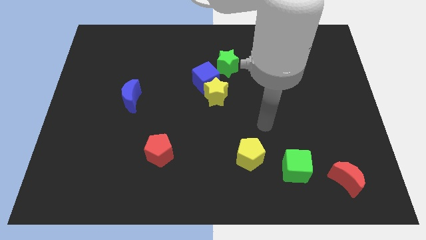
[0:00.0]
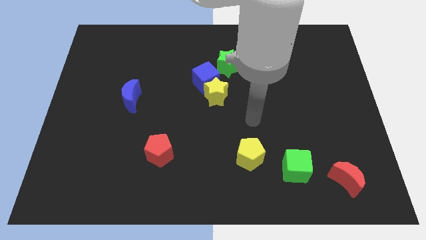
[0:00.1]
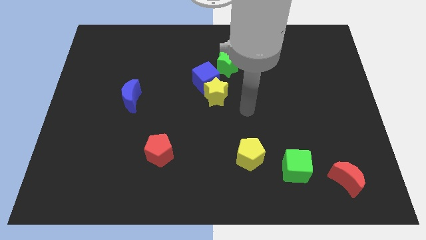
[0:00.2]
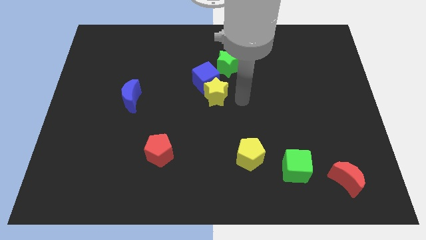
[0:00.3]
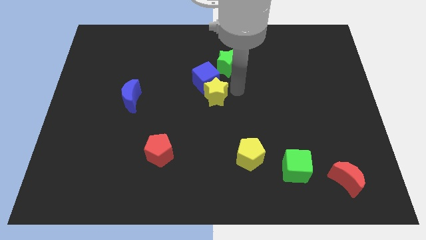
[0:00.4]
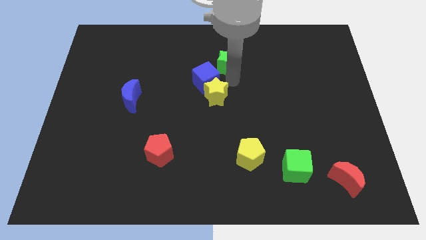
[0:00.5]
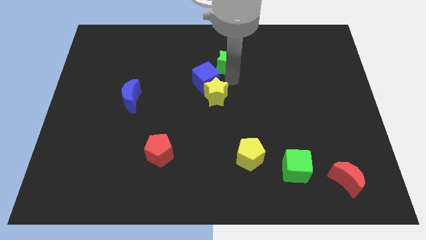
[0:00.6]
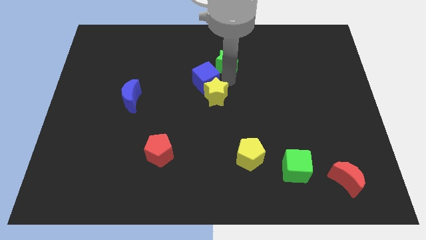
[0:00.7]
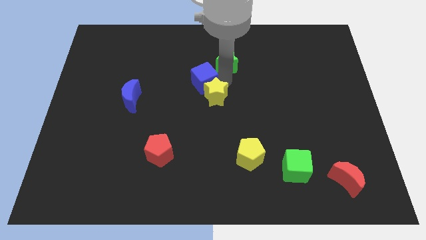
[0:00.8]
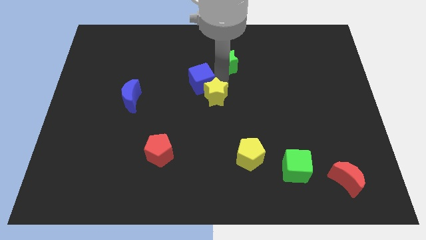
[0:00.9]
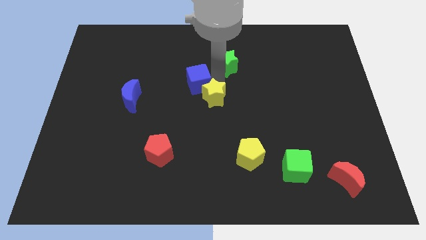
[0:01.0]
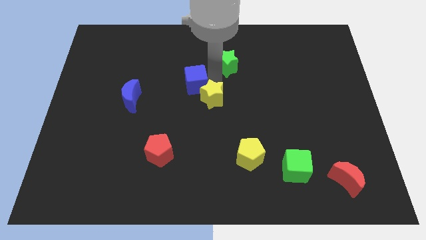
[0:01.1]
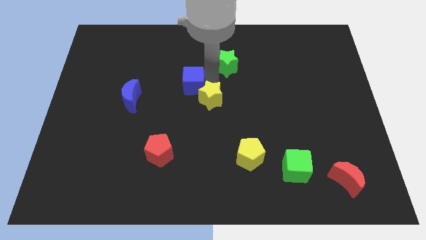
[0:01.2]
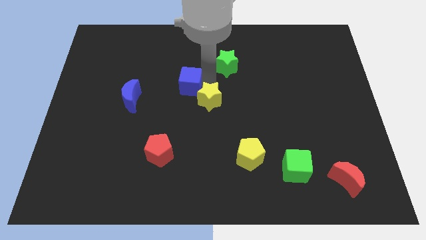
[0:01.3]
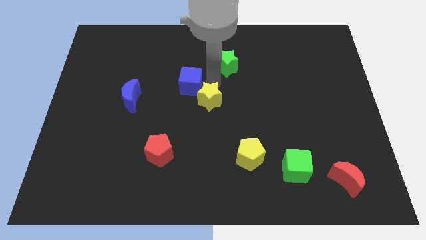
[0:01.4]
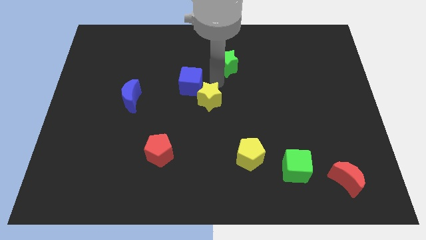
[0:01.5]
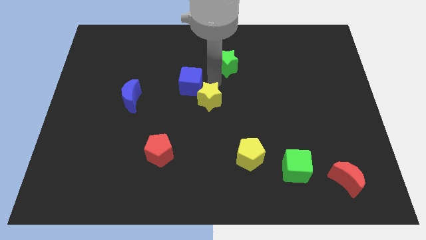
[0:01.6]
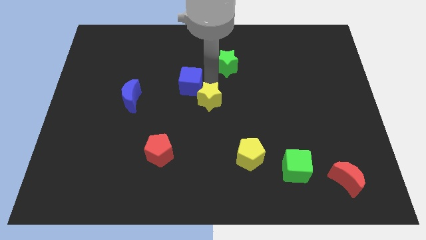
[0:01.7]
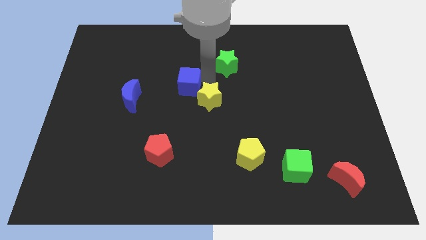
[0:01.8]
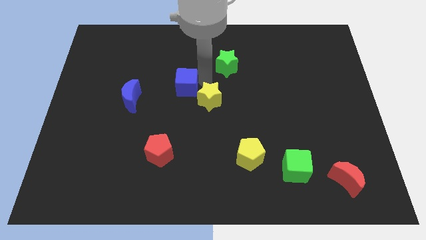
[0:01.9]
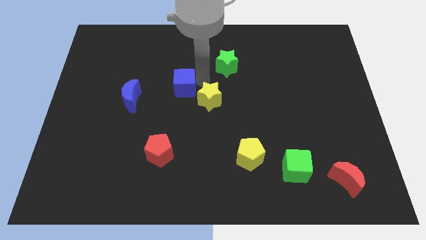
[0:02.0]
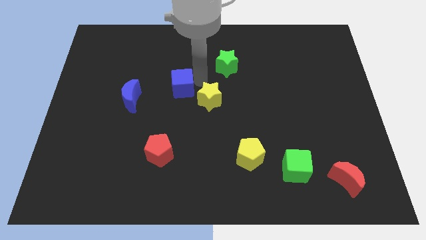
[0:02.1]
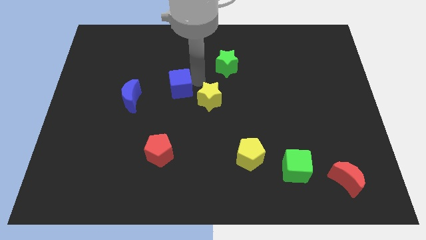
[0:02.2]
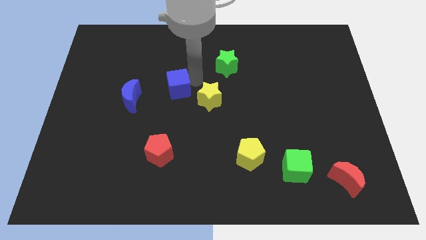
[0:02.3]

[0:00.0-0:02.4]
pull the blue cube apart from the yellow star and green star

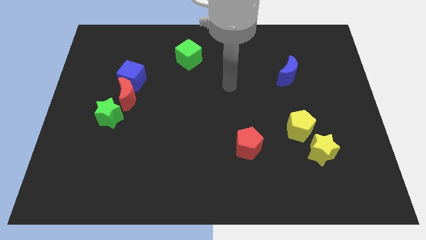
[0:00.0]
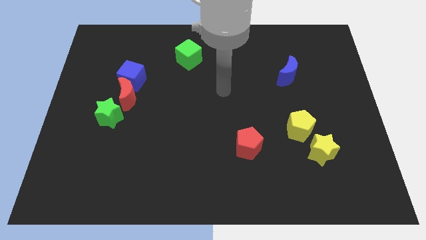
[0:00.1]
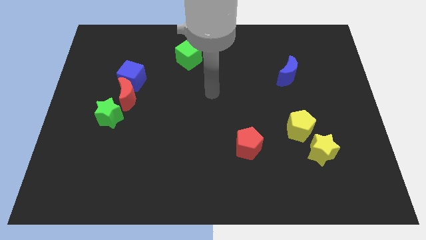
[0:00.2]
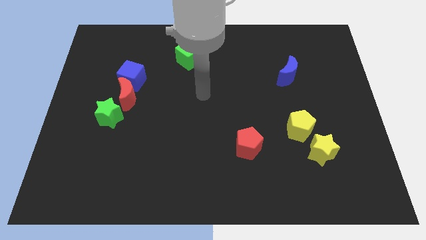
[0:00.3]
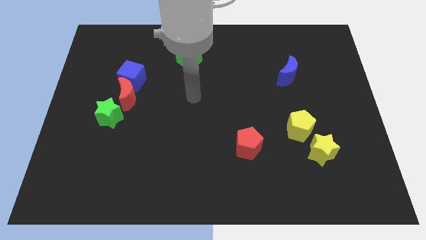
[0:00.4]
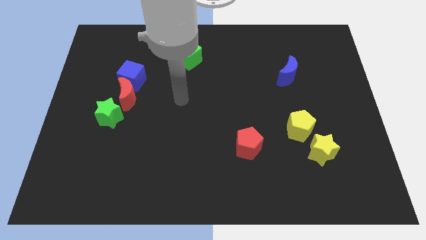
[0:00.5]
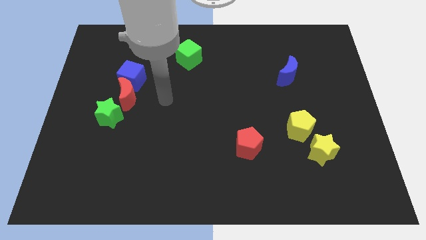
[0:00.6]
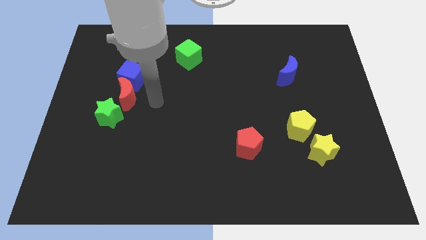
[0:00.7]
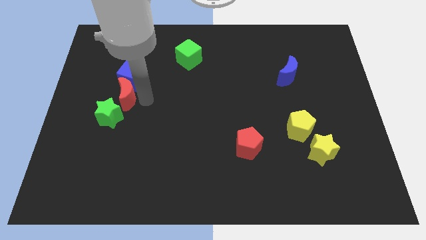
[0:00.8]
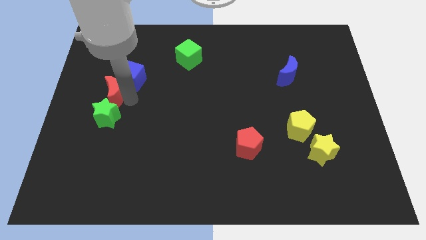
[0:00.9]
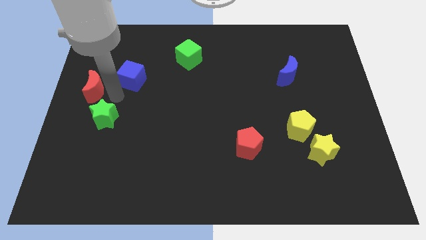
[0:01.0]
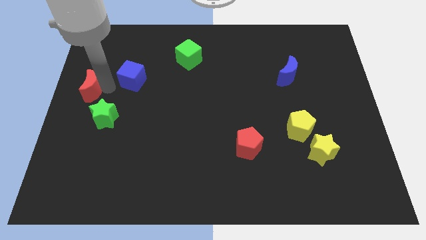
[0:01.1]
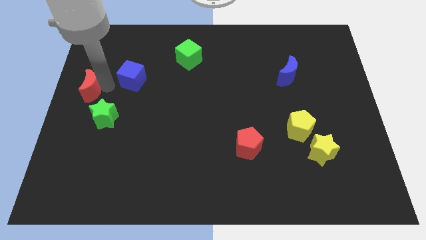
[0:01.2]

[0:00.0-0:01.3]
separate the blue cube from the red moon

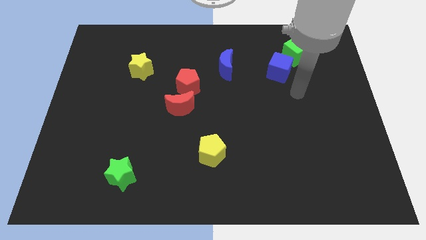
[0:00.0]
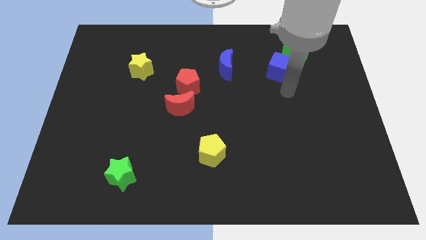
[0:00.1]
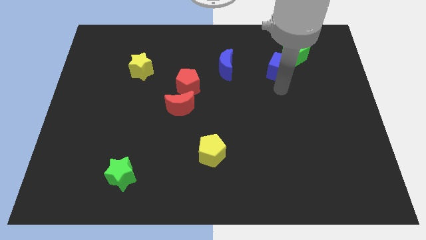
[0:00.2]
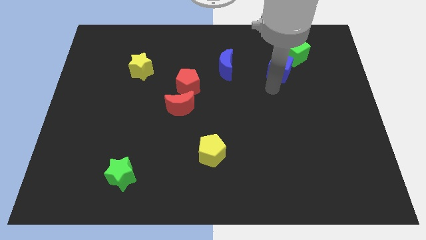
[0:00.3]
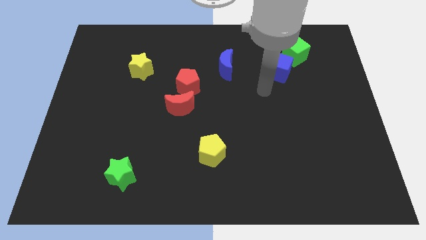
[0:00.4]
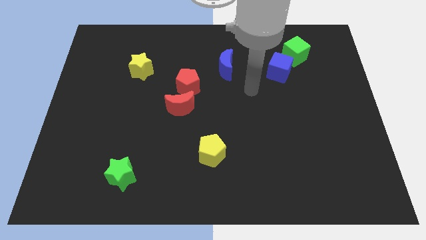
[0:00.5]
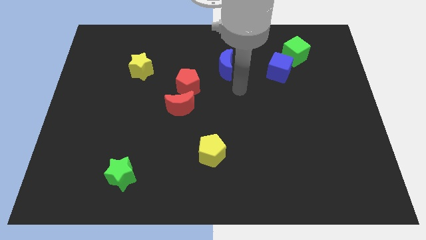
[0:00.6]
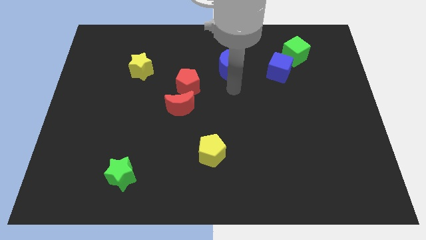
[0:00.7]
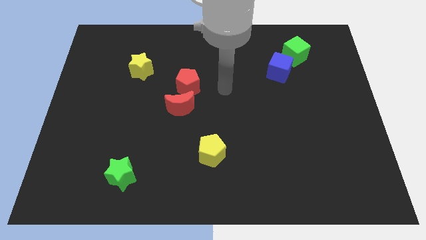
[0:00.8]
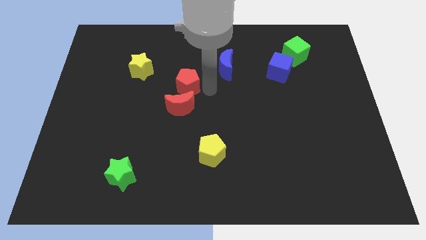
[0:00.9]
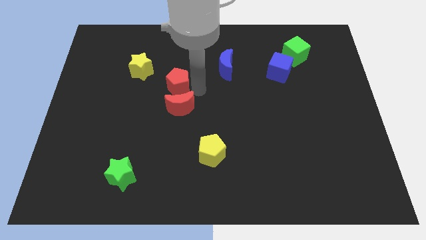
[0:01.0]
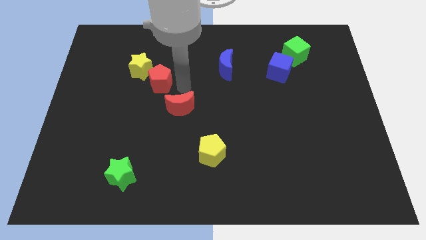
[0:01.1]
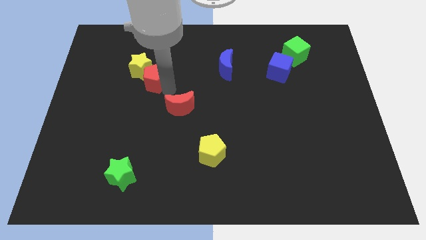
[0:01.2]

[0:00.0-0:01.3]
move the red moon away from the red pentagon

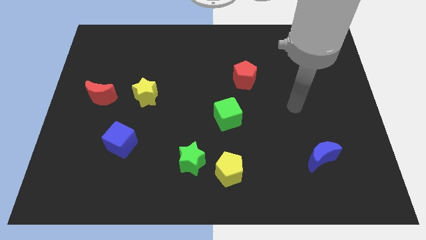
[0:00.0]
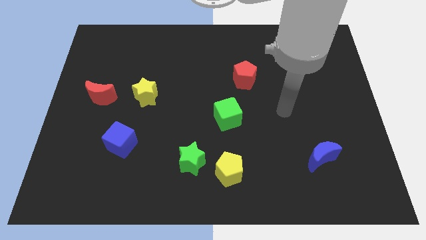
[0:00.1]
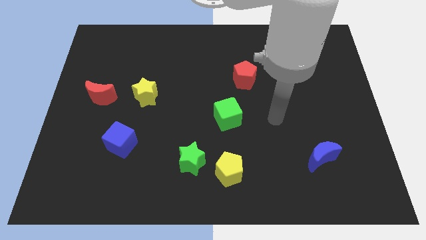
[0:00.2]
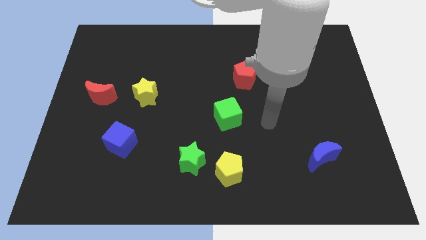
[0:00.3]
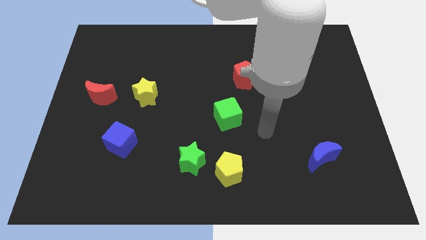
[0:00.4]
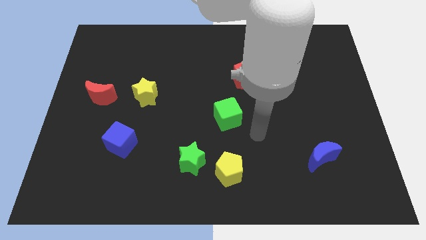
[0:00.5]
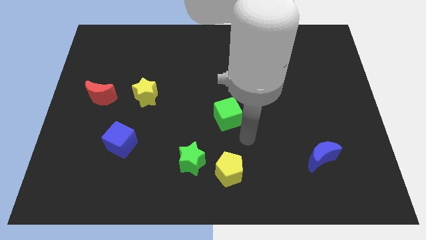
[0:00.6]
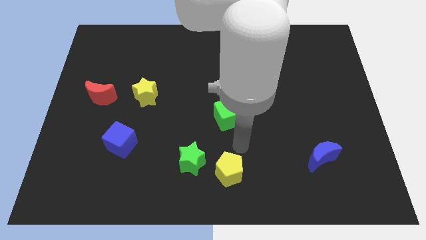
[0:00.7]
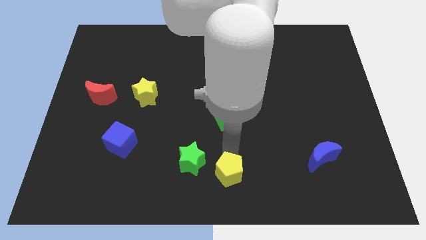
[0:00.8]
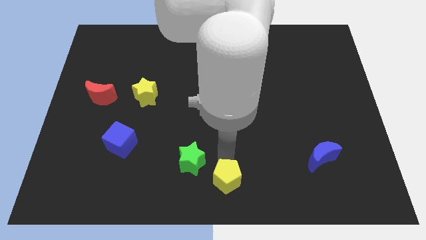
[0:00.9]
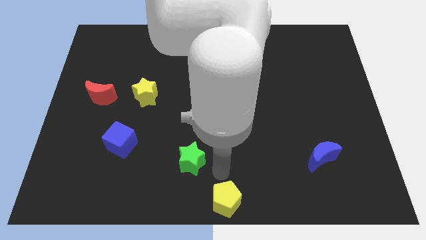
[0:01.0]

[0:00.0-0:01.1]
separate the green star from the yellow pentagon

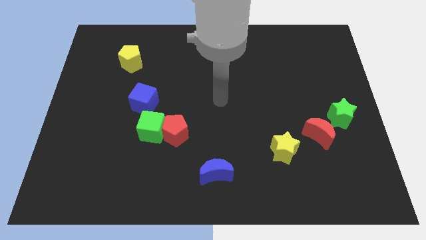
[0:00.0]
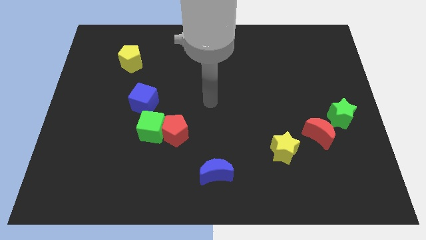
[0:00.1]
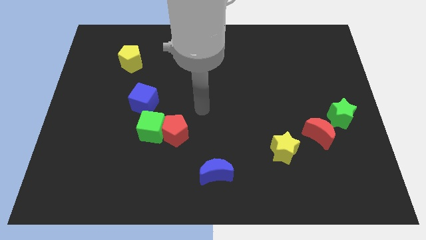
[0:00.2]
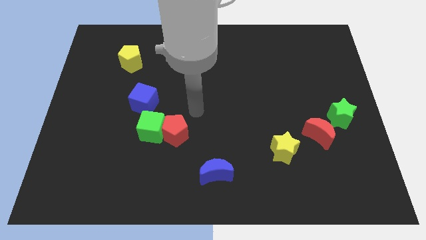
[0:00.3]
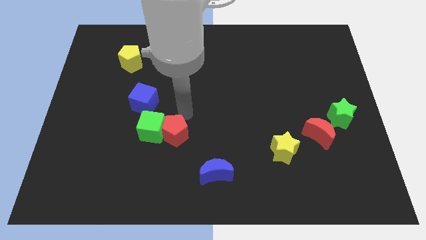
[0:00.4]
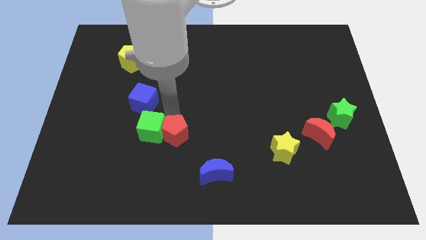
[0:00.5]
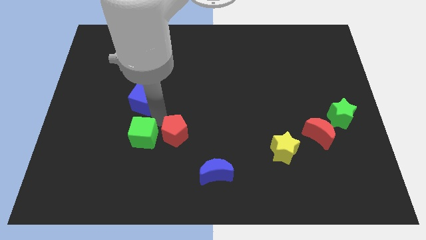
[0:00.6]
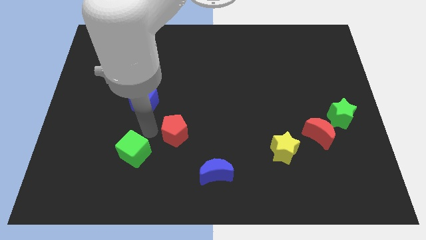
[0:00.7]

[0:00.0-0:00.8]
separate the red pentagon from the green cube

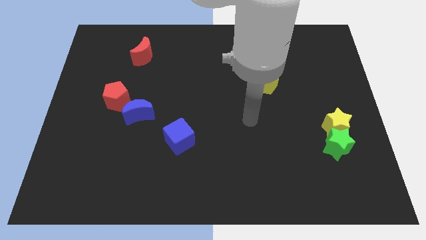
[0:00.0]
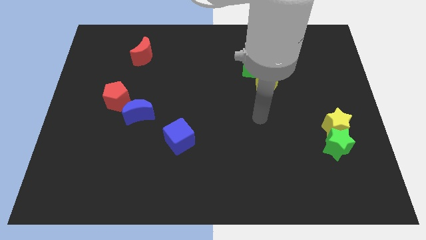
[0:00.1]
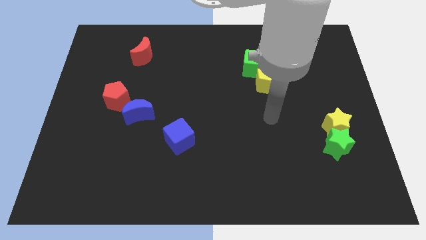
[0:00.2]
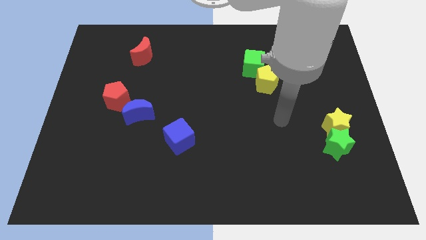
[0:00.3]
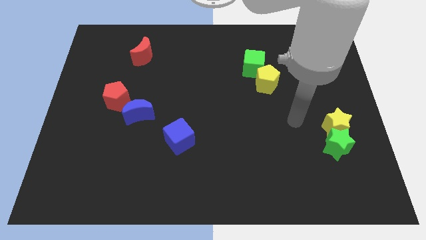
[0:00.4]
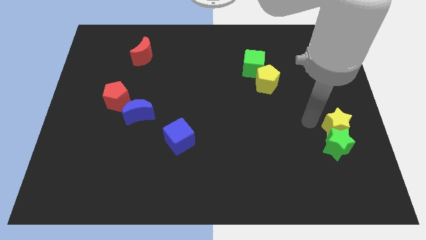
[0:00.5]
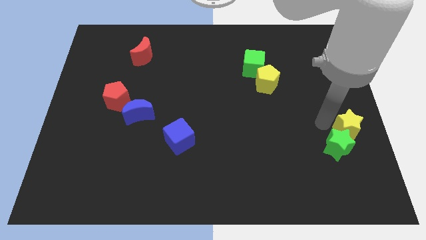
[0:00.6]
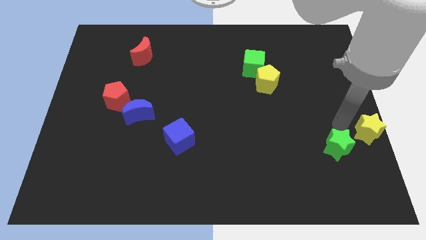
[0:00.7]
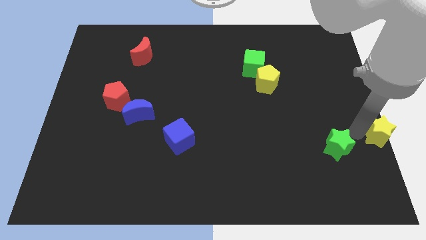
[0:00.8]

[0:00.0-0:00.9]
pull the green star apart from the yellow star

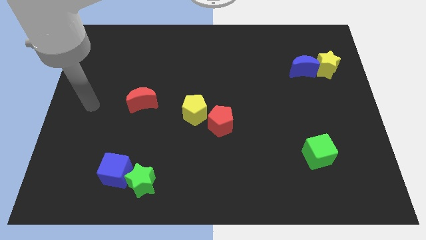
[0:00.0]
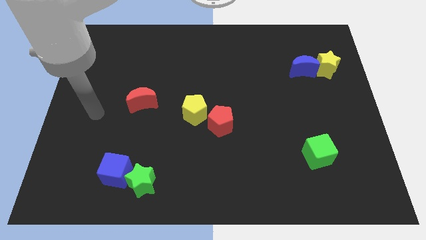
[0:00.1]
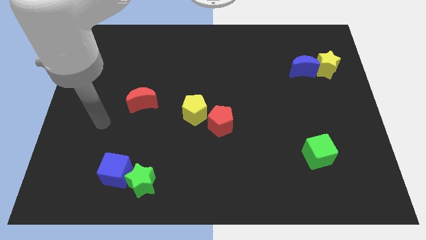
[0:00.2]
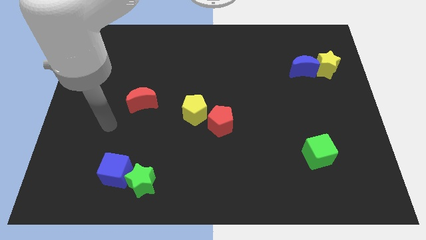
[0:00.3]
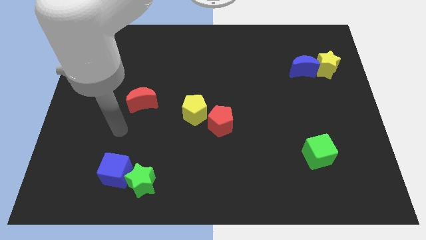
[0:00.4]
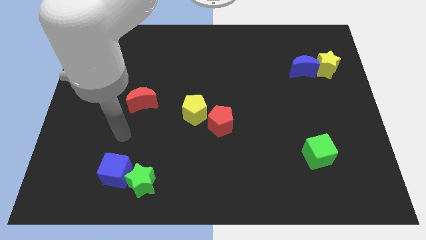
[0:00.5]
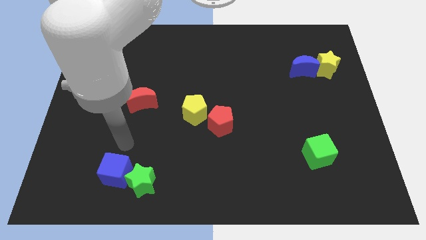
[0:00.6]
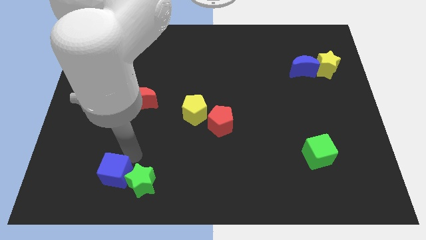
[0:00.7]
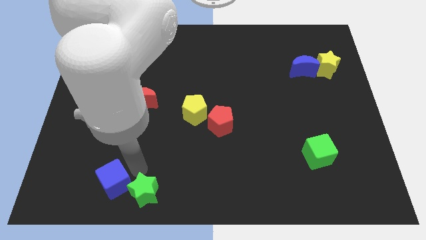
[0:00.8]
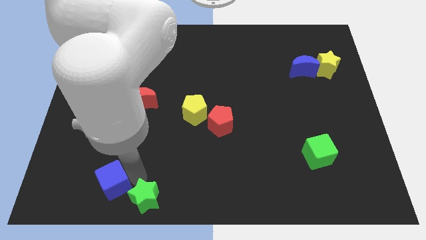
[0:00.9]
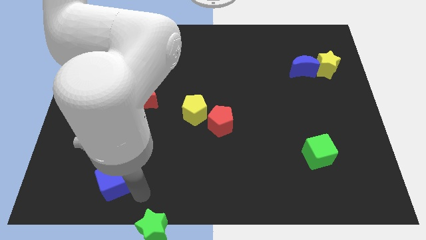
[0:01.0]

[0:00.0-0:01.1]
move the blue cube away from the green star

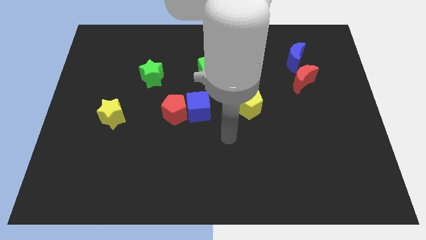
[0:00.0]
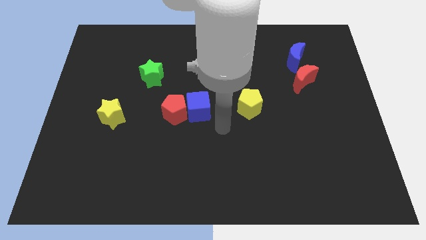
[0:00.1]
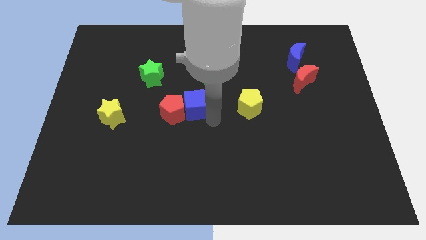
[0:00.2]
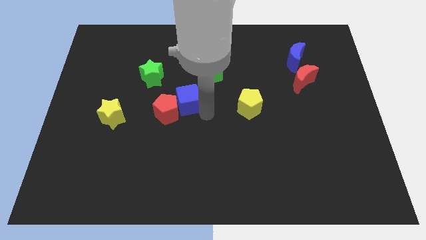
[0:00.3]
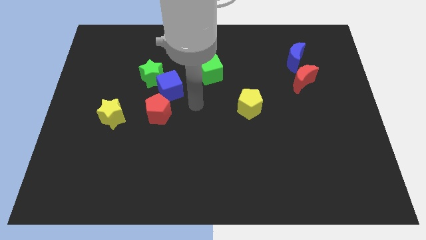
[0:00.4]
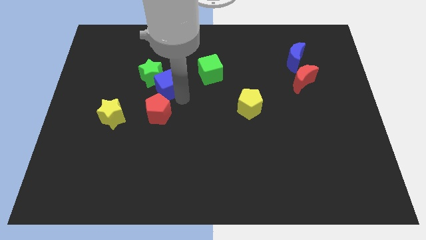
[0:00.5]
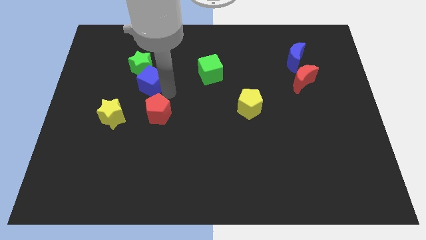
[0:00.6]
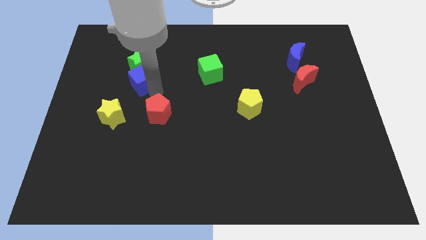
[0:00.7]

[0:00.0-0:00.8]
separate the red pentagon from the blue cube
